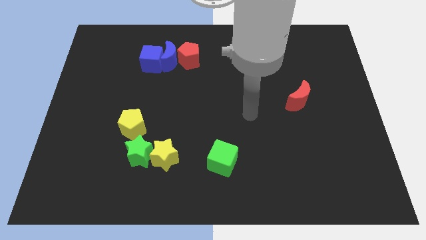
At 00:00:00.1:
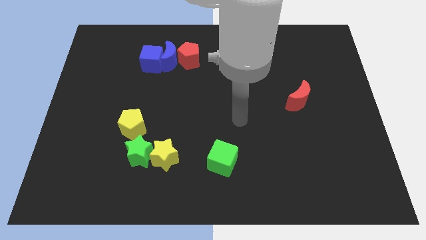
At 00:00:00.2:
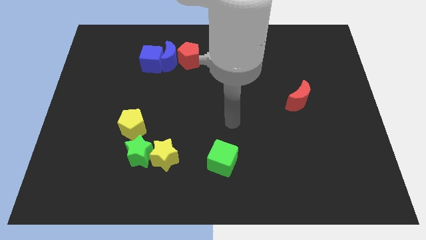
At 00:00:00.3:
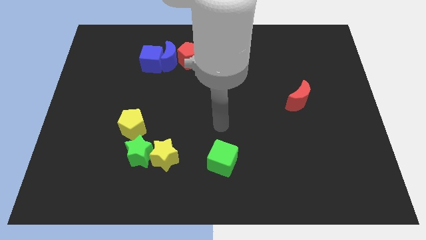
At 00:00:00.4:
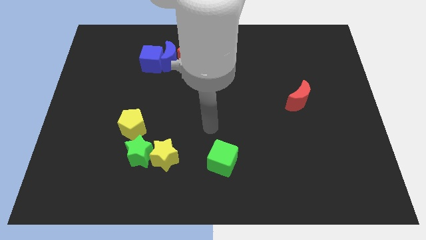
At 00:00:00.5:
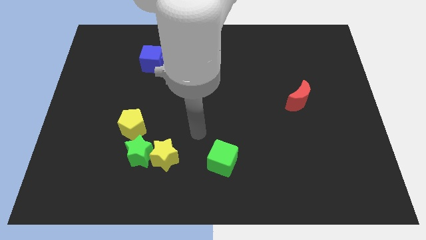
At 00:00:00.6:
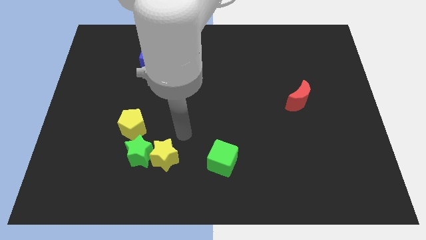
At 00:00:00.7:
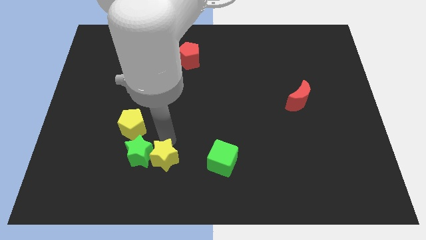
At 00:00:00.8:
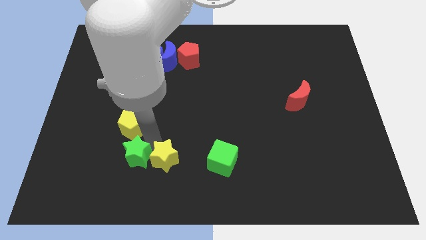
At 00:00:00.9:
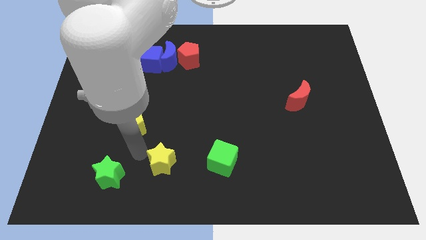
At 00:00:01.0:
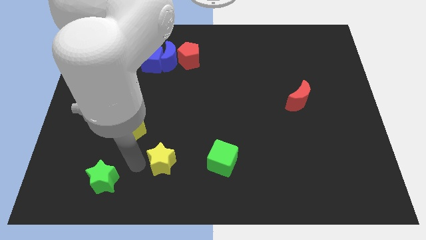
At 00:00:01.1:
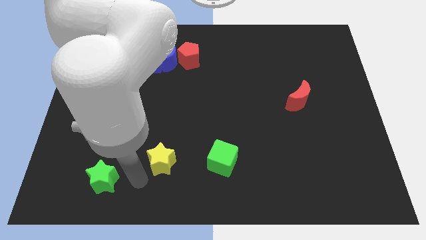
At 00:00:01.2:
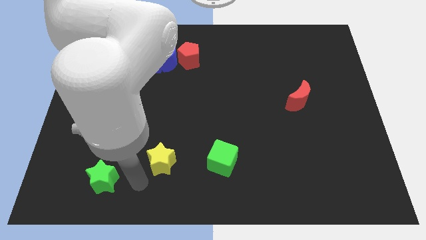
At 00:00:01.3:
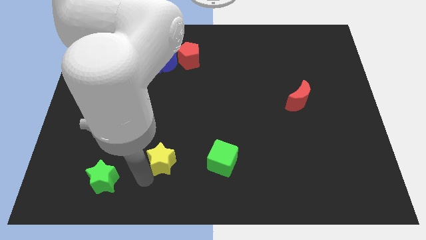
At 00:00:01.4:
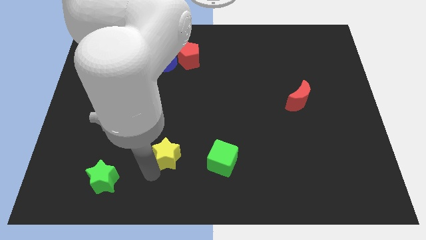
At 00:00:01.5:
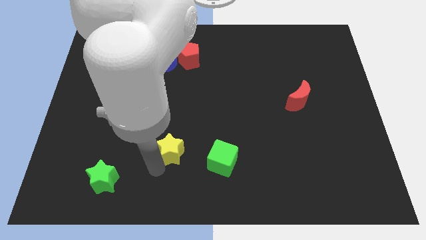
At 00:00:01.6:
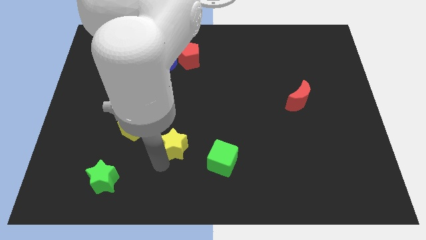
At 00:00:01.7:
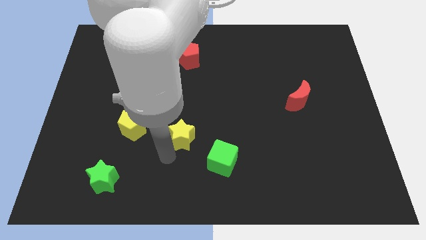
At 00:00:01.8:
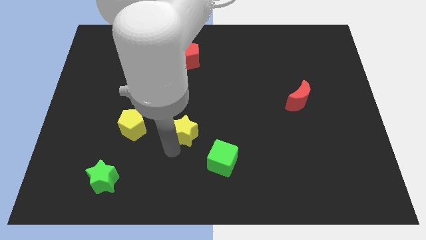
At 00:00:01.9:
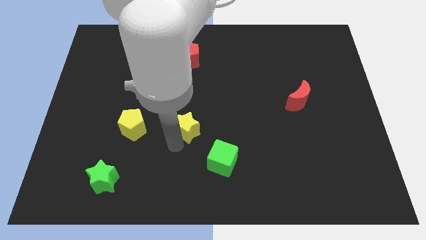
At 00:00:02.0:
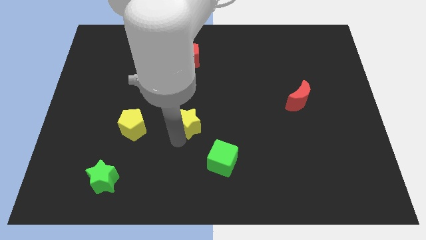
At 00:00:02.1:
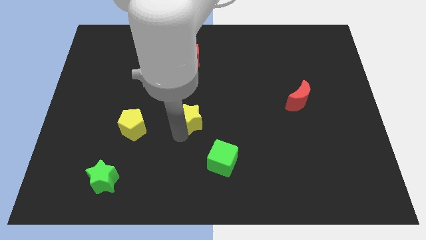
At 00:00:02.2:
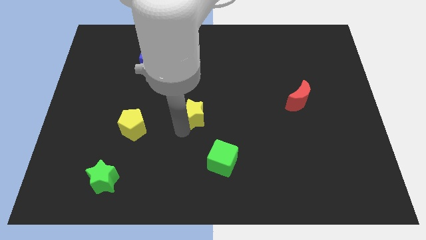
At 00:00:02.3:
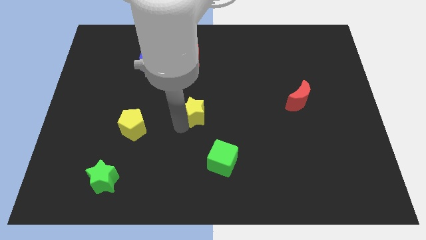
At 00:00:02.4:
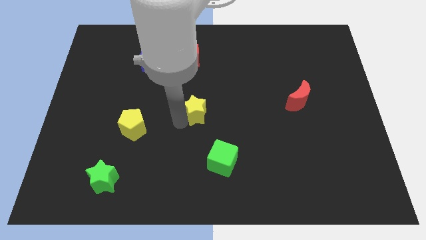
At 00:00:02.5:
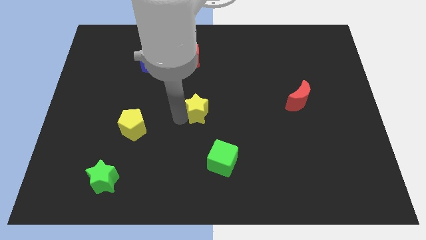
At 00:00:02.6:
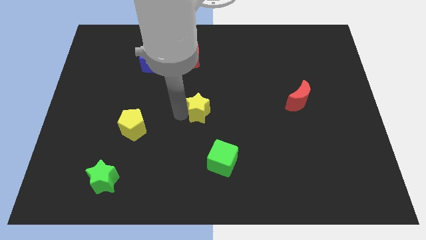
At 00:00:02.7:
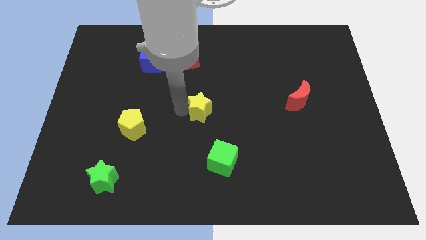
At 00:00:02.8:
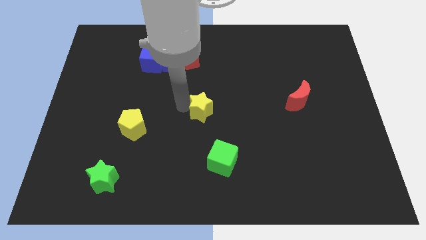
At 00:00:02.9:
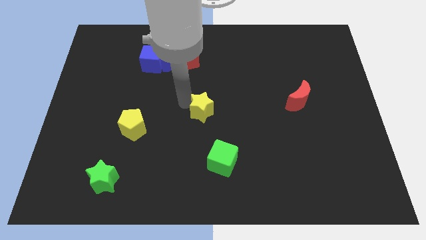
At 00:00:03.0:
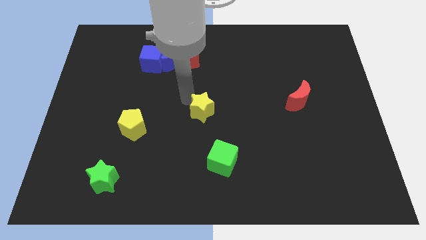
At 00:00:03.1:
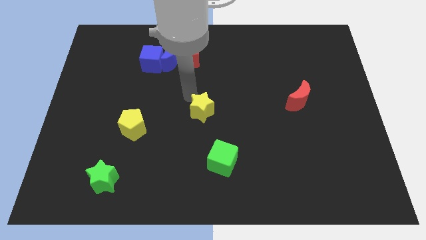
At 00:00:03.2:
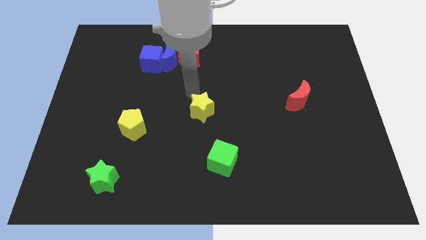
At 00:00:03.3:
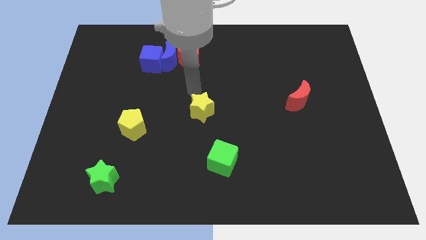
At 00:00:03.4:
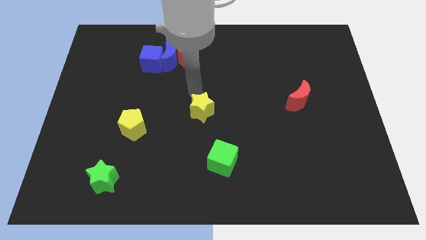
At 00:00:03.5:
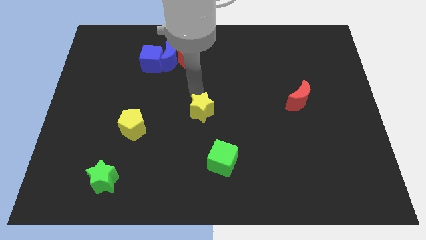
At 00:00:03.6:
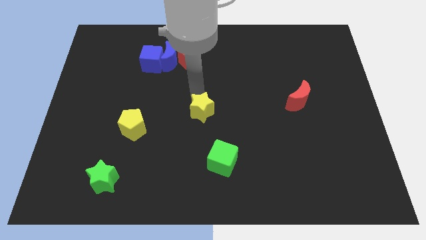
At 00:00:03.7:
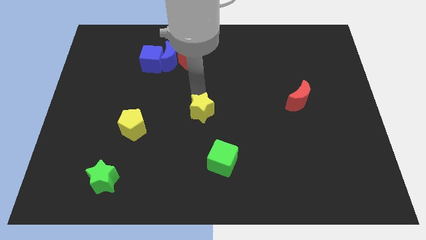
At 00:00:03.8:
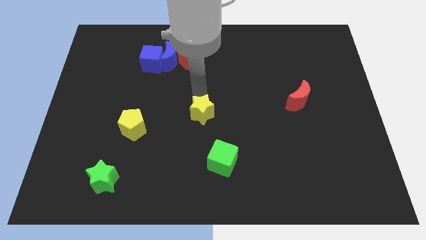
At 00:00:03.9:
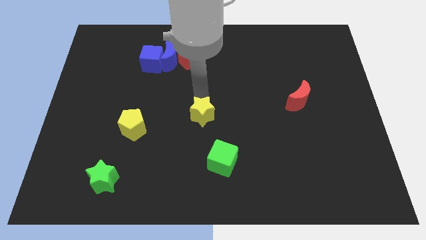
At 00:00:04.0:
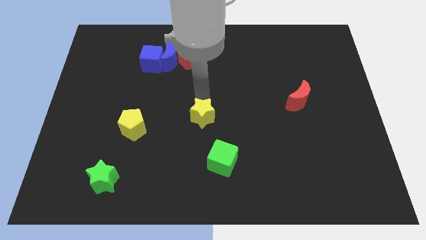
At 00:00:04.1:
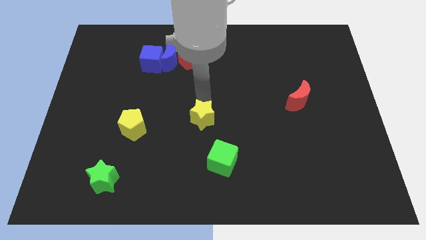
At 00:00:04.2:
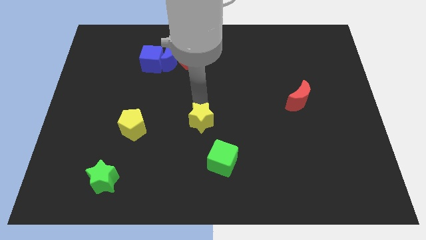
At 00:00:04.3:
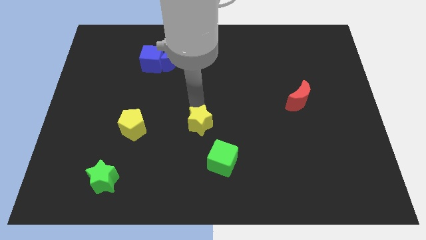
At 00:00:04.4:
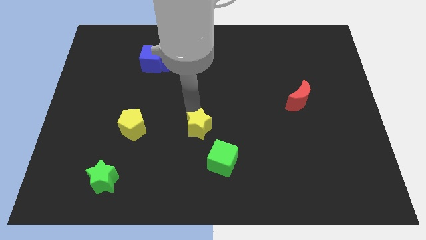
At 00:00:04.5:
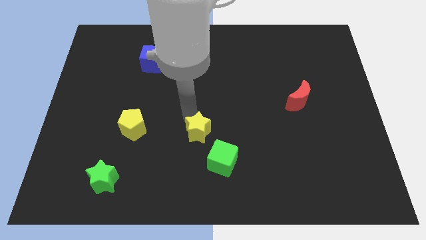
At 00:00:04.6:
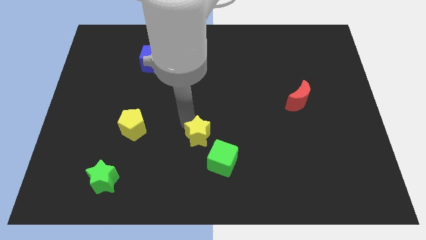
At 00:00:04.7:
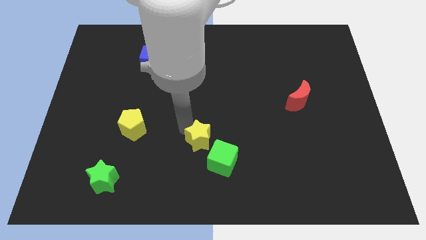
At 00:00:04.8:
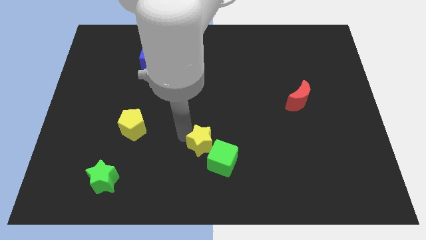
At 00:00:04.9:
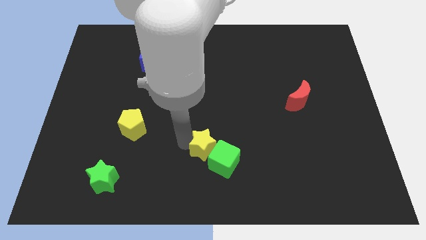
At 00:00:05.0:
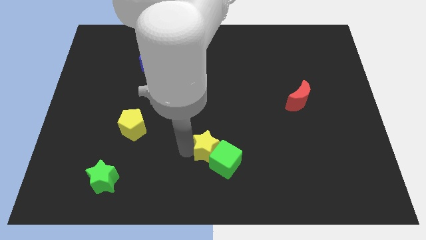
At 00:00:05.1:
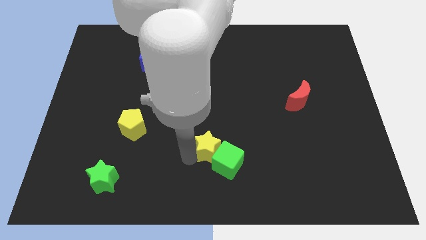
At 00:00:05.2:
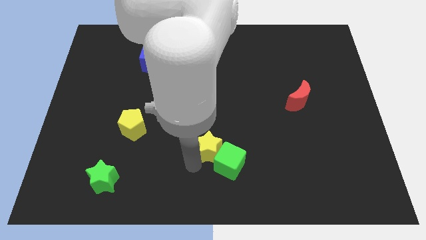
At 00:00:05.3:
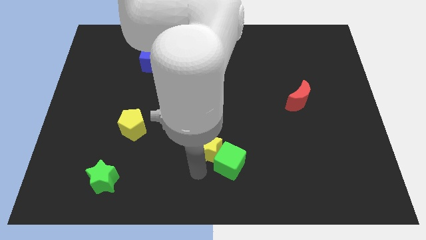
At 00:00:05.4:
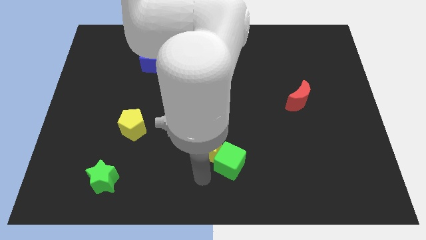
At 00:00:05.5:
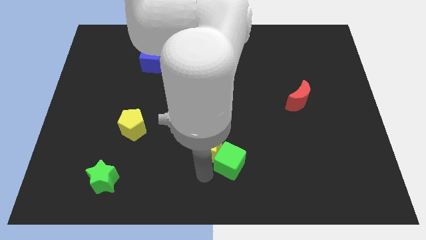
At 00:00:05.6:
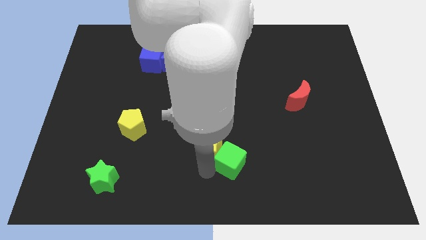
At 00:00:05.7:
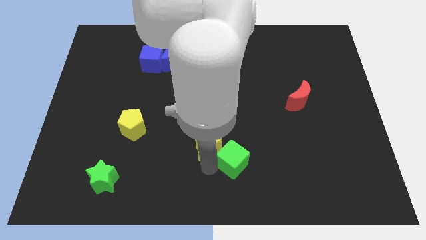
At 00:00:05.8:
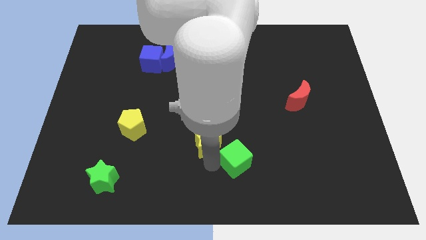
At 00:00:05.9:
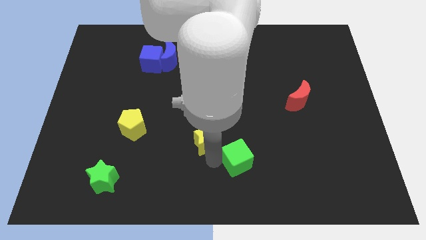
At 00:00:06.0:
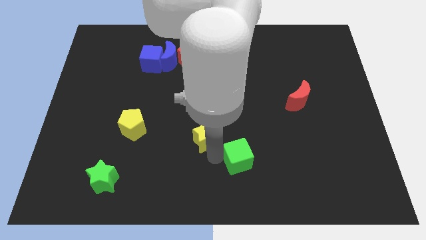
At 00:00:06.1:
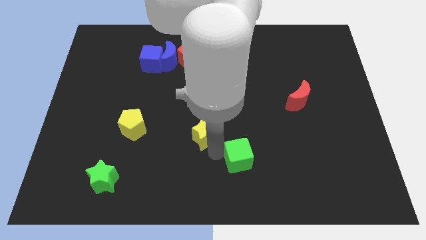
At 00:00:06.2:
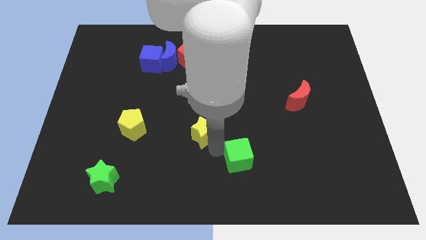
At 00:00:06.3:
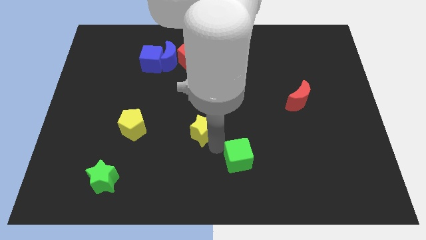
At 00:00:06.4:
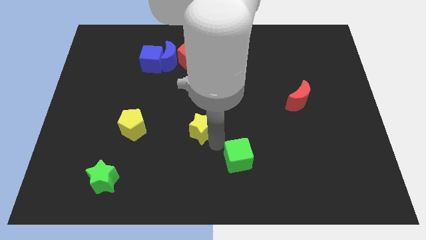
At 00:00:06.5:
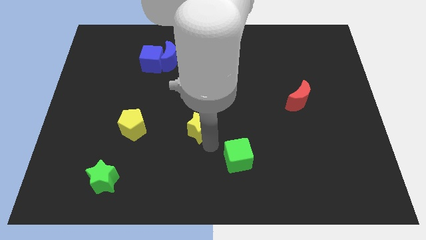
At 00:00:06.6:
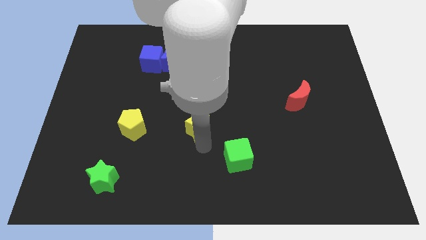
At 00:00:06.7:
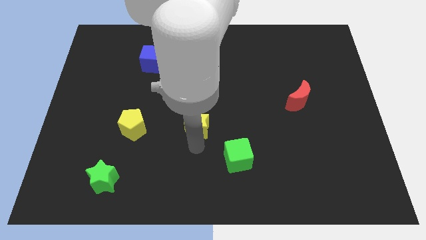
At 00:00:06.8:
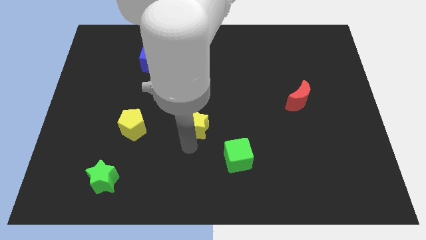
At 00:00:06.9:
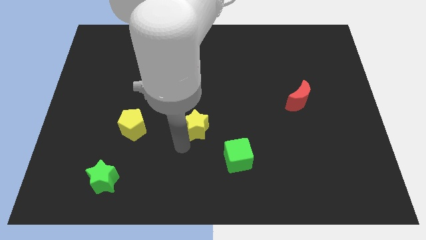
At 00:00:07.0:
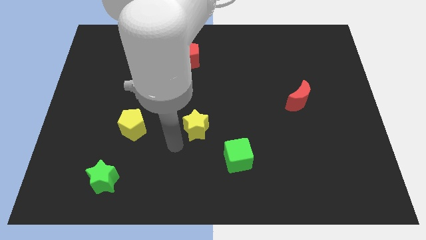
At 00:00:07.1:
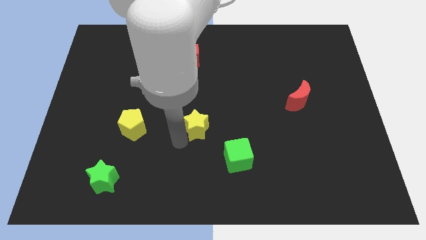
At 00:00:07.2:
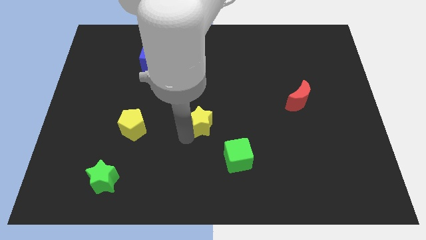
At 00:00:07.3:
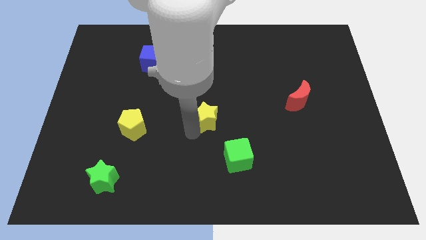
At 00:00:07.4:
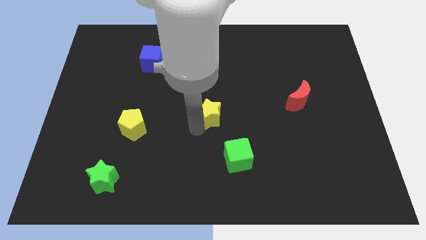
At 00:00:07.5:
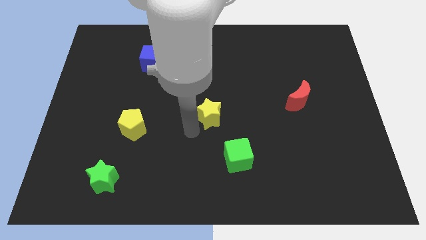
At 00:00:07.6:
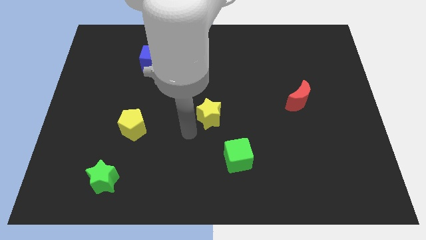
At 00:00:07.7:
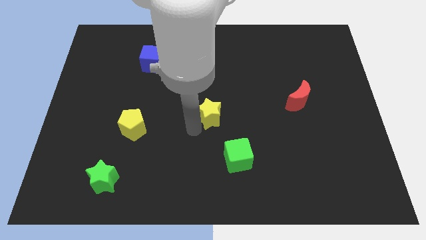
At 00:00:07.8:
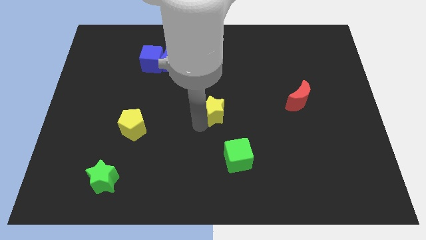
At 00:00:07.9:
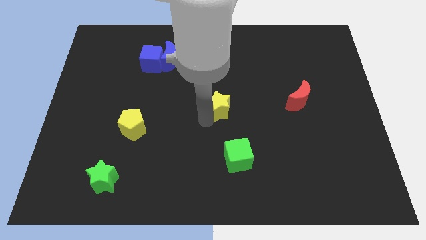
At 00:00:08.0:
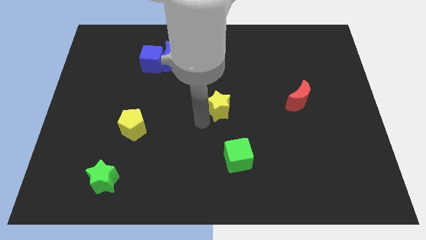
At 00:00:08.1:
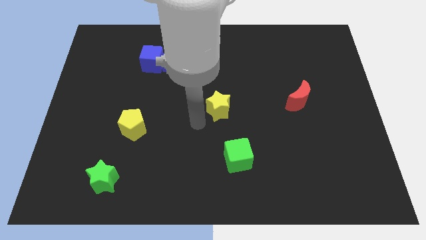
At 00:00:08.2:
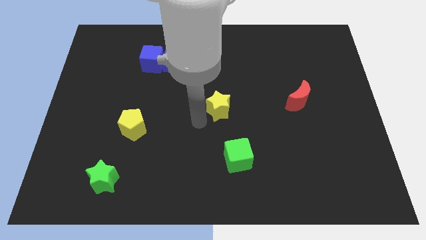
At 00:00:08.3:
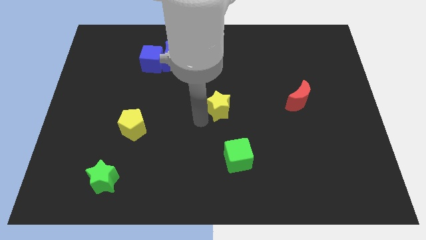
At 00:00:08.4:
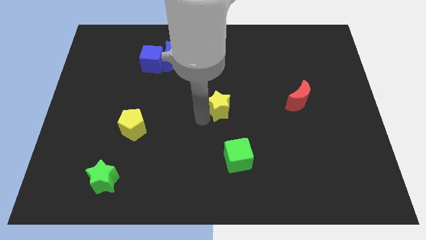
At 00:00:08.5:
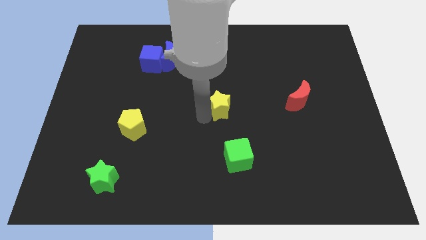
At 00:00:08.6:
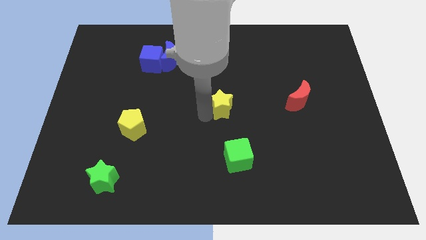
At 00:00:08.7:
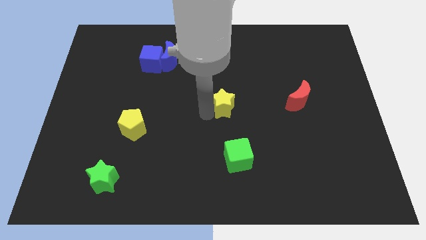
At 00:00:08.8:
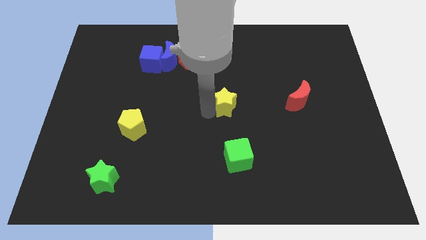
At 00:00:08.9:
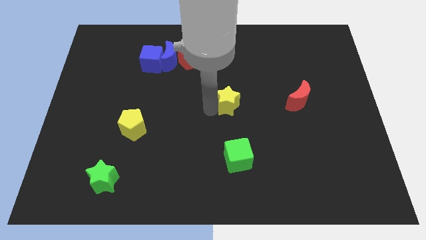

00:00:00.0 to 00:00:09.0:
push the yellow star up and then right
